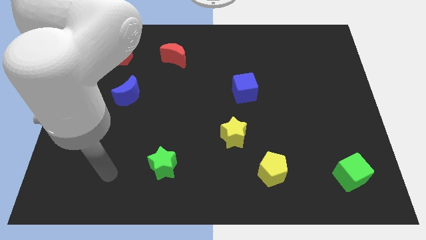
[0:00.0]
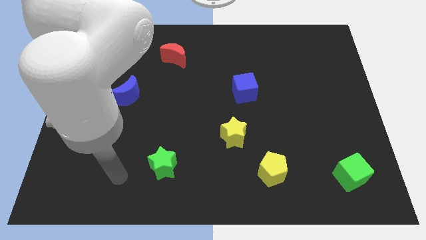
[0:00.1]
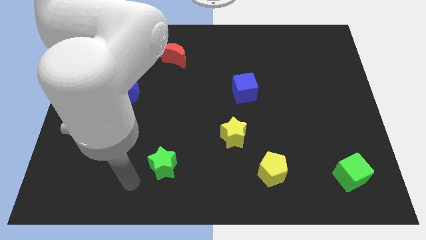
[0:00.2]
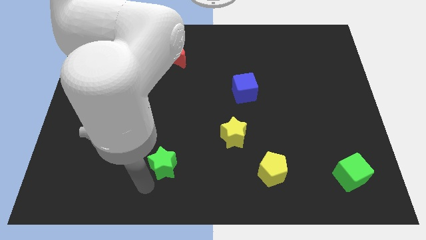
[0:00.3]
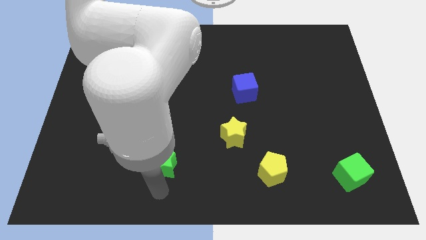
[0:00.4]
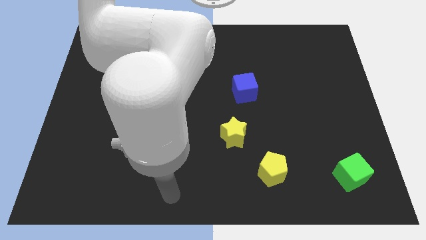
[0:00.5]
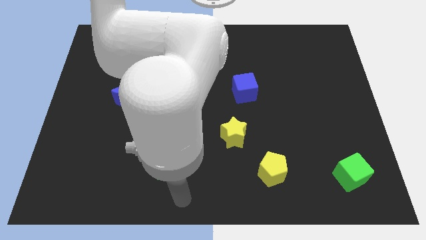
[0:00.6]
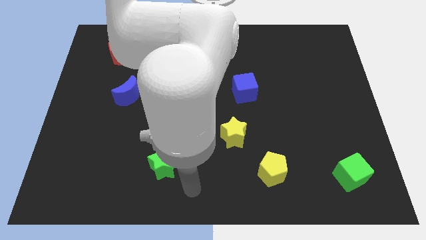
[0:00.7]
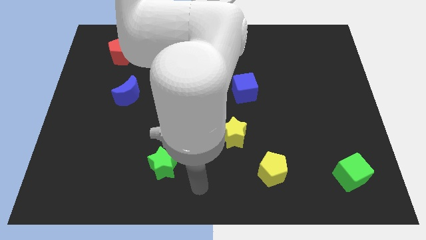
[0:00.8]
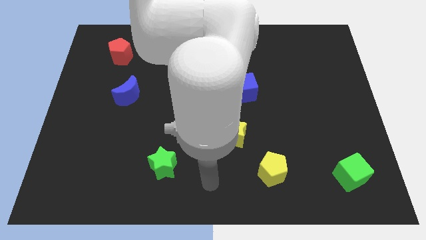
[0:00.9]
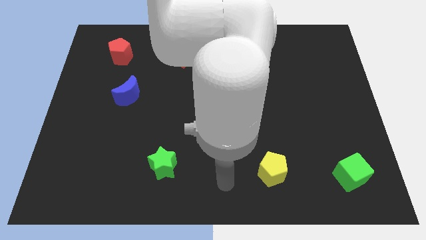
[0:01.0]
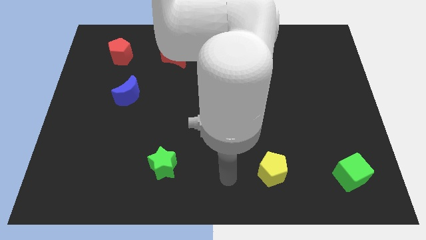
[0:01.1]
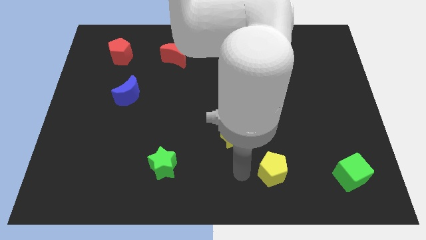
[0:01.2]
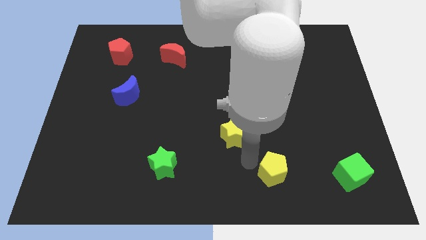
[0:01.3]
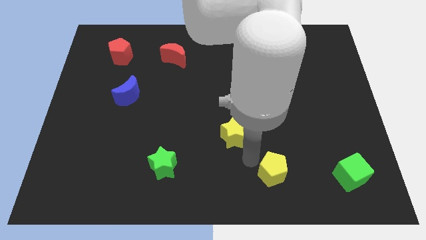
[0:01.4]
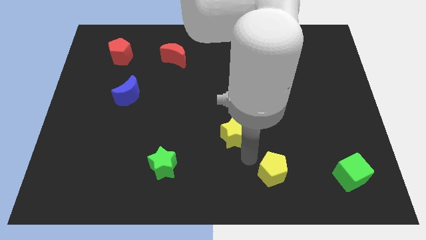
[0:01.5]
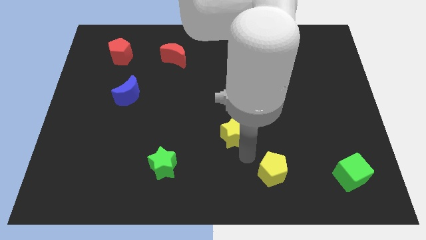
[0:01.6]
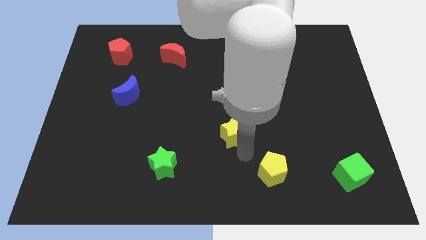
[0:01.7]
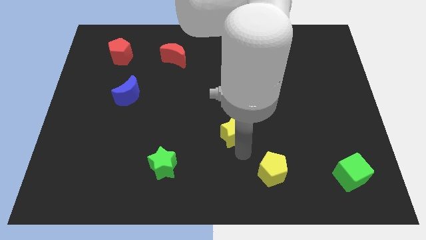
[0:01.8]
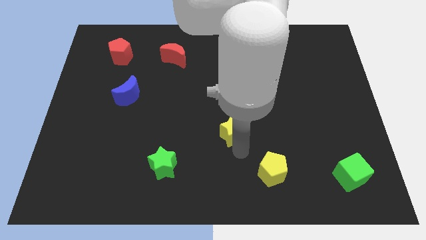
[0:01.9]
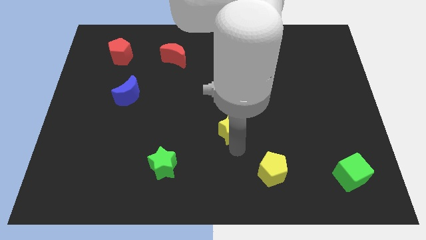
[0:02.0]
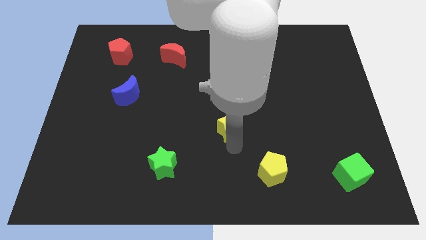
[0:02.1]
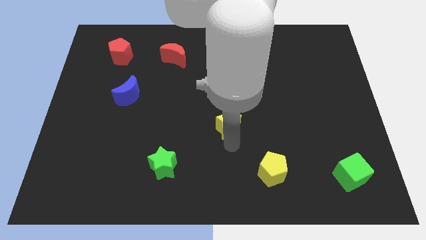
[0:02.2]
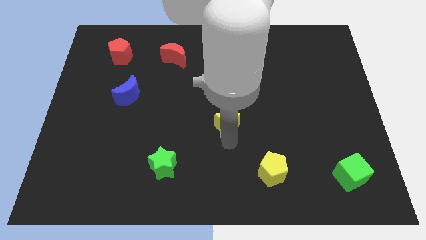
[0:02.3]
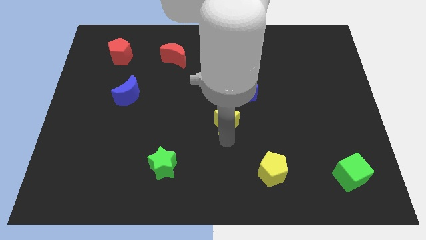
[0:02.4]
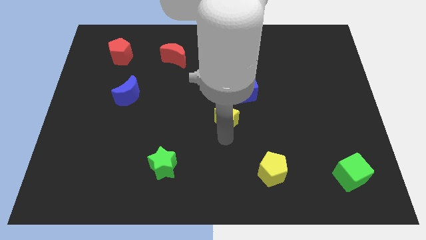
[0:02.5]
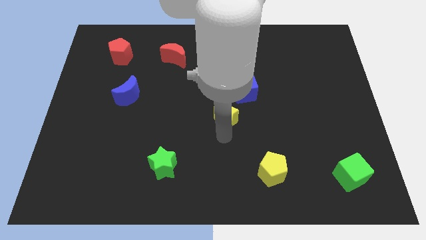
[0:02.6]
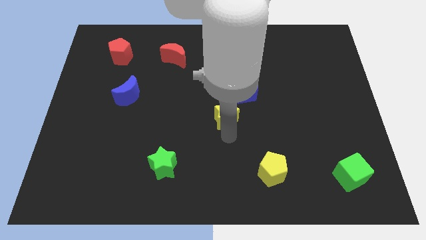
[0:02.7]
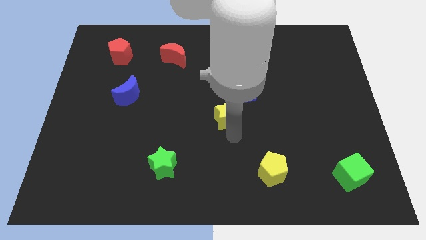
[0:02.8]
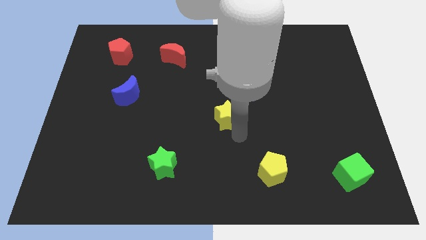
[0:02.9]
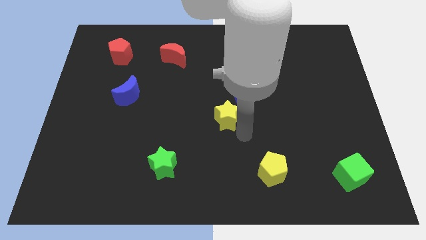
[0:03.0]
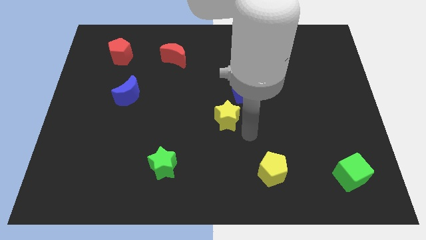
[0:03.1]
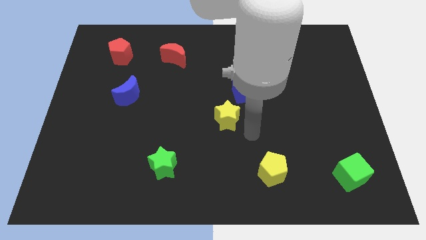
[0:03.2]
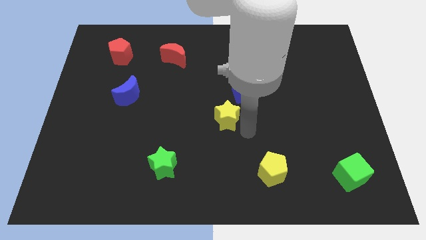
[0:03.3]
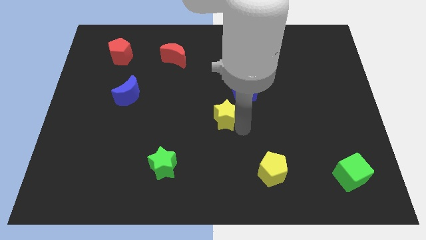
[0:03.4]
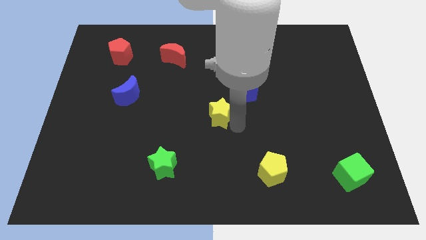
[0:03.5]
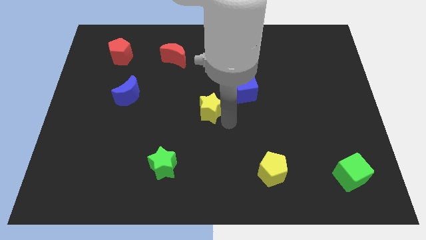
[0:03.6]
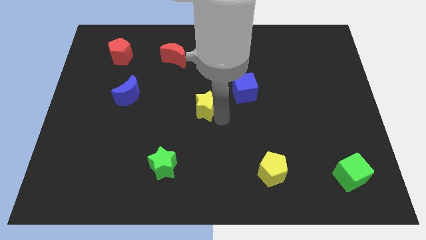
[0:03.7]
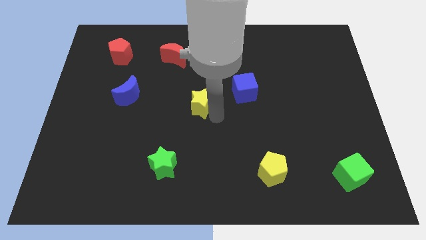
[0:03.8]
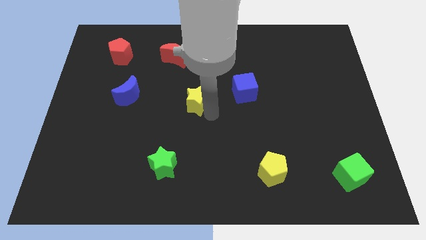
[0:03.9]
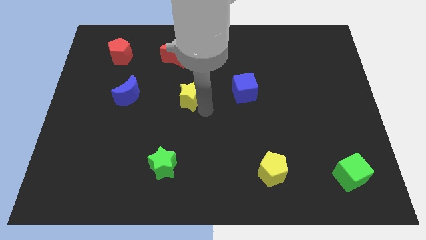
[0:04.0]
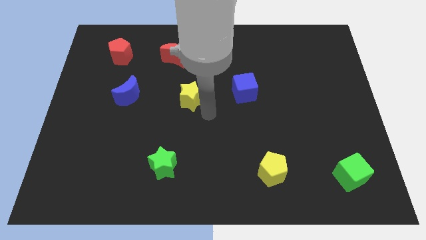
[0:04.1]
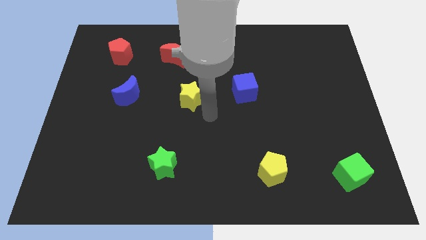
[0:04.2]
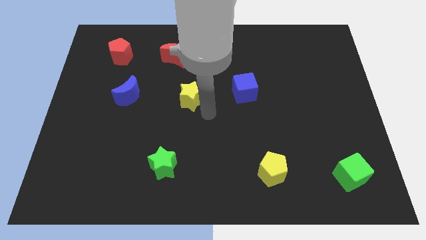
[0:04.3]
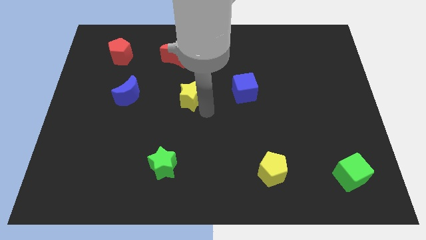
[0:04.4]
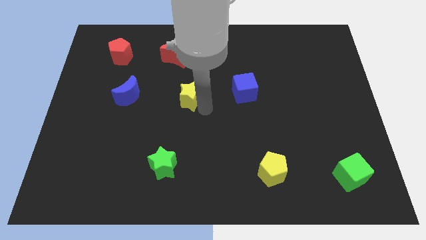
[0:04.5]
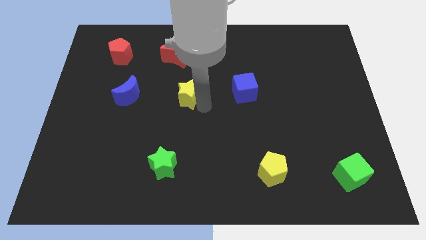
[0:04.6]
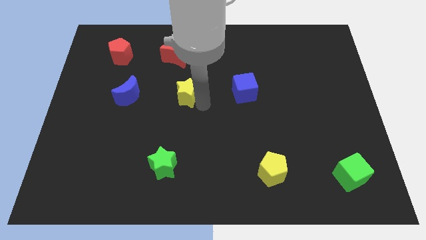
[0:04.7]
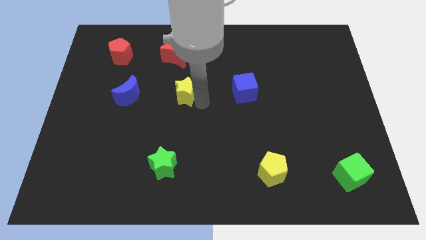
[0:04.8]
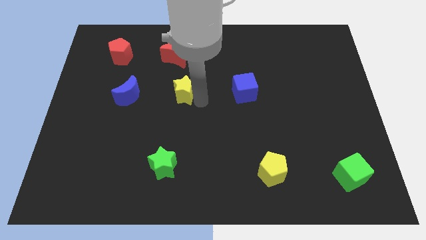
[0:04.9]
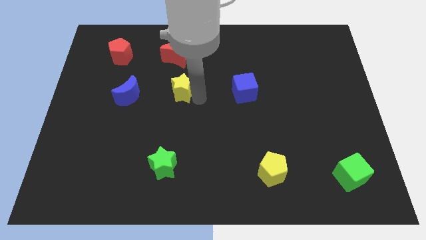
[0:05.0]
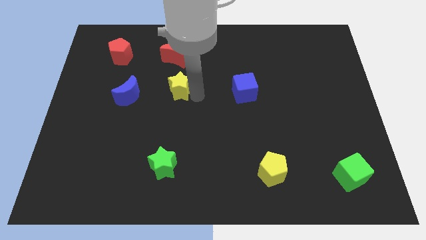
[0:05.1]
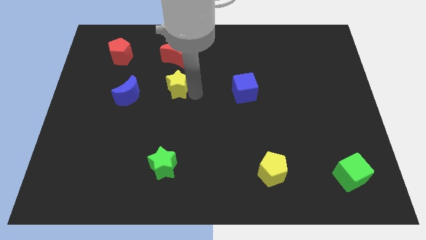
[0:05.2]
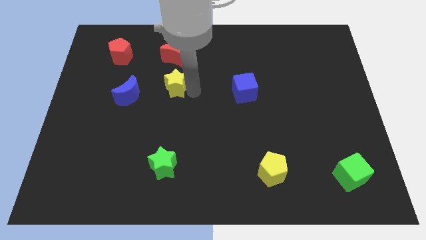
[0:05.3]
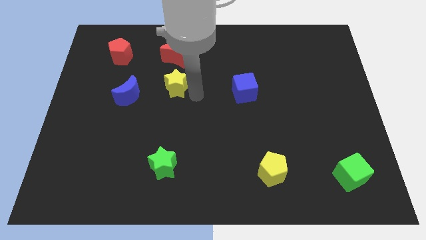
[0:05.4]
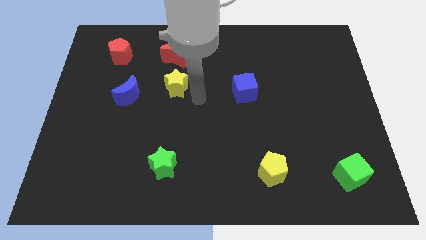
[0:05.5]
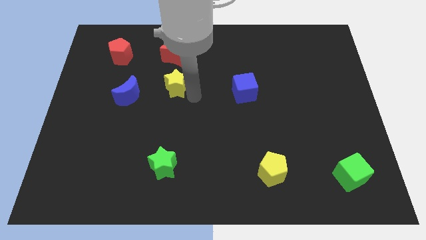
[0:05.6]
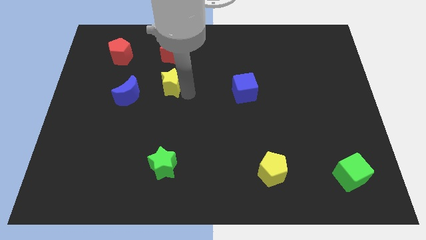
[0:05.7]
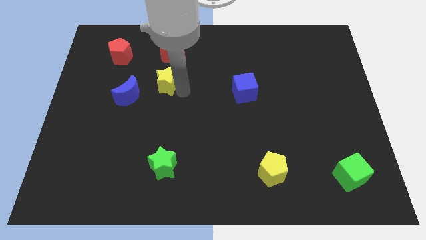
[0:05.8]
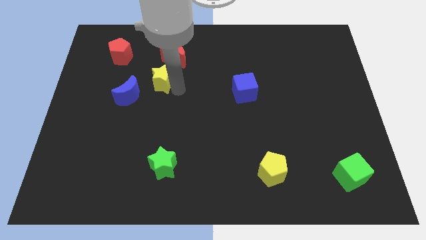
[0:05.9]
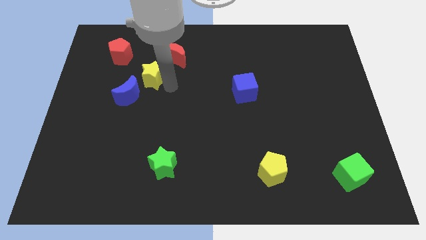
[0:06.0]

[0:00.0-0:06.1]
push the yellow star to the top of the blue moon

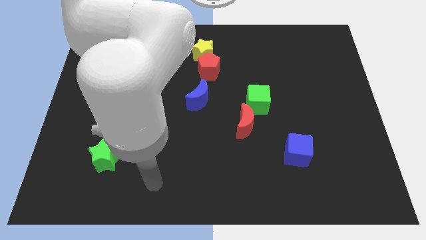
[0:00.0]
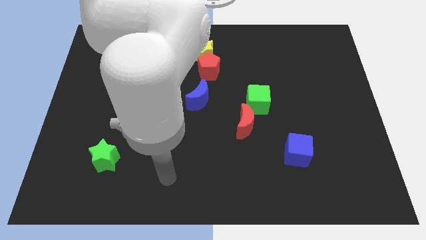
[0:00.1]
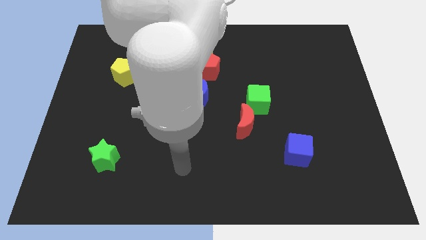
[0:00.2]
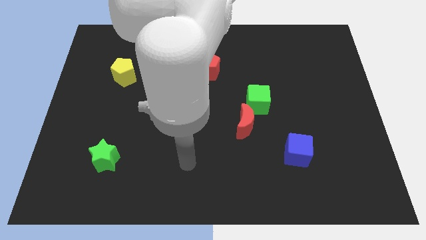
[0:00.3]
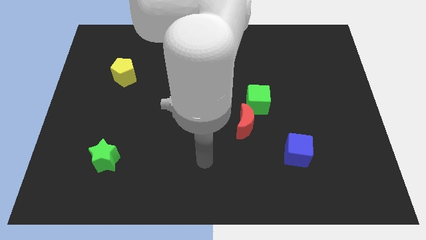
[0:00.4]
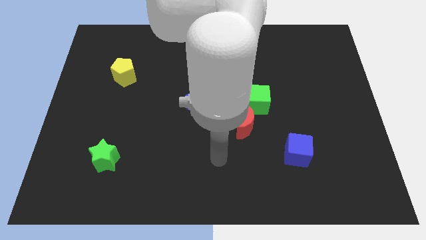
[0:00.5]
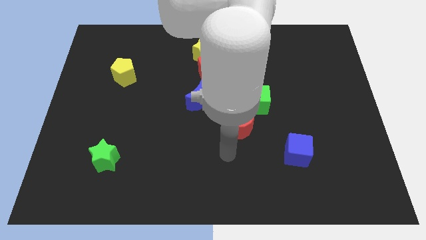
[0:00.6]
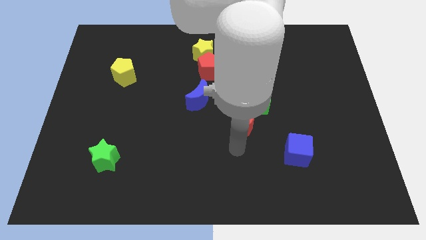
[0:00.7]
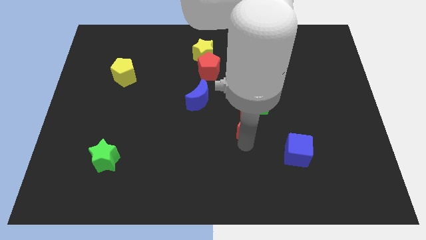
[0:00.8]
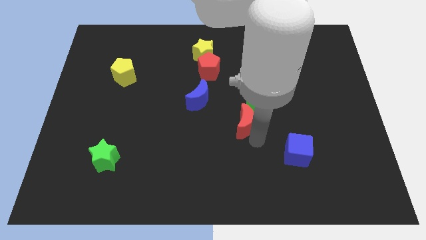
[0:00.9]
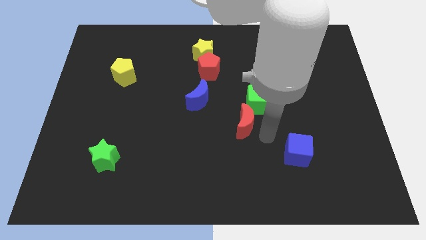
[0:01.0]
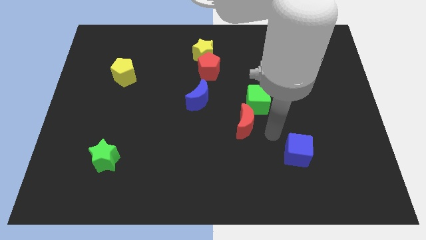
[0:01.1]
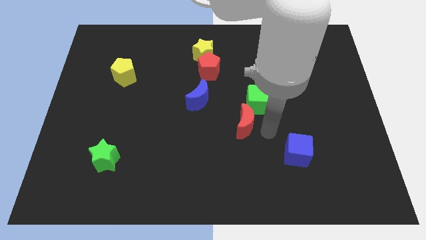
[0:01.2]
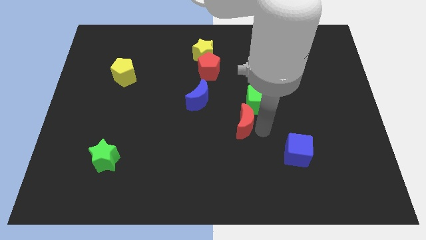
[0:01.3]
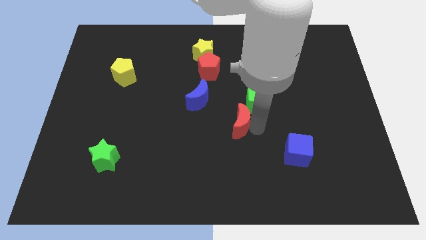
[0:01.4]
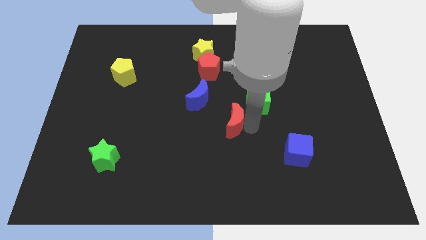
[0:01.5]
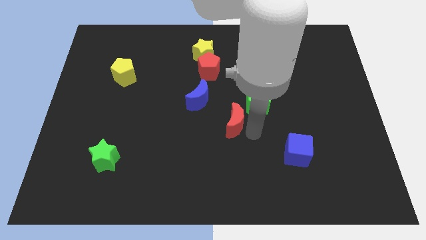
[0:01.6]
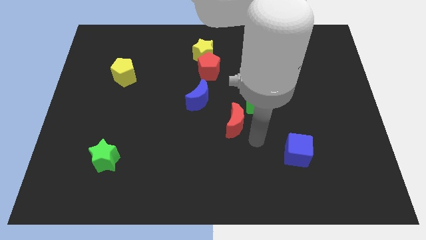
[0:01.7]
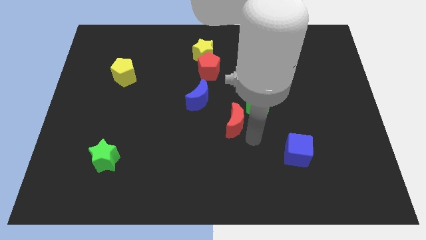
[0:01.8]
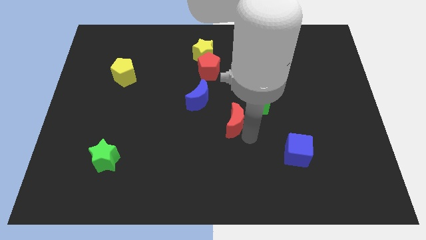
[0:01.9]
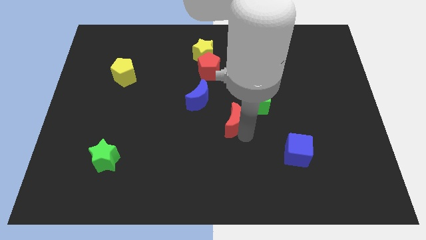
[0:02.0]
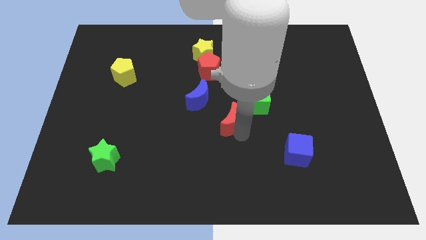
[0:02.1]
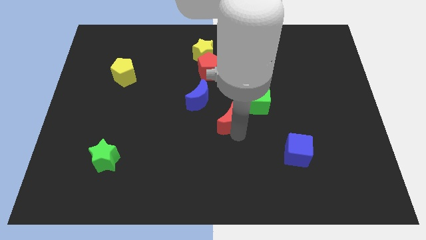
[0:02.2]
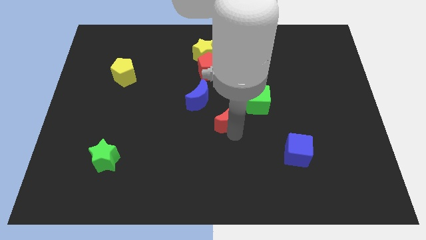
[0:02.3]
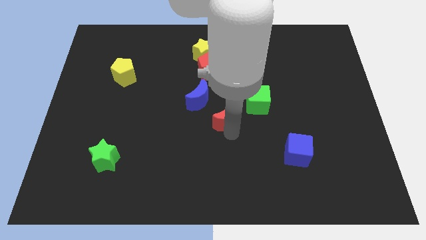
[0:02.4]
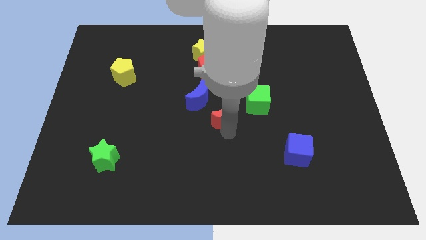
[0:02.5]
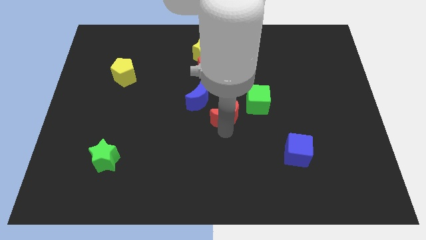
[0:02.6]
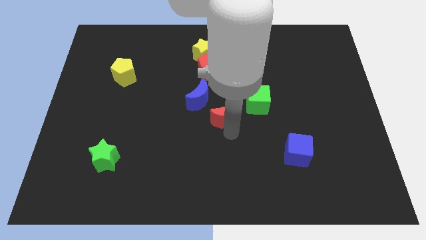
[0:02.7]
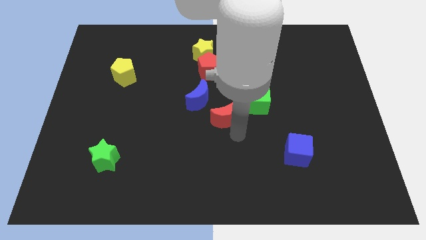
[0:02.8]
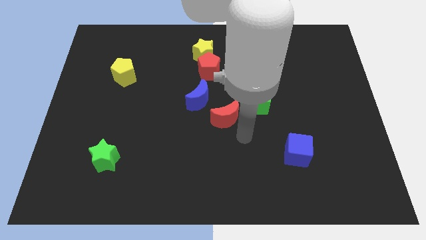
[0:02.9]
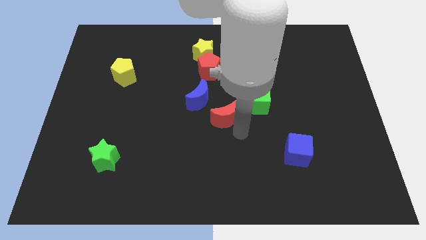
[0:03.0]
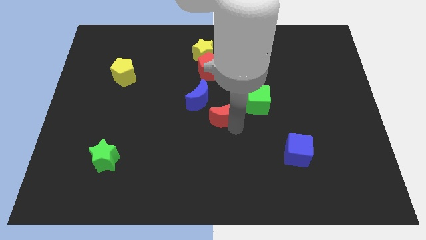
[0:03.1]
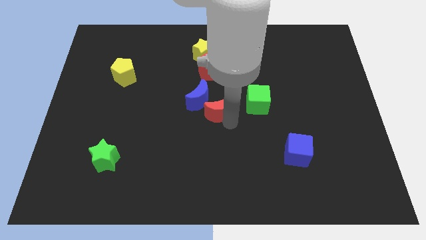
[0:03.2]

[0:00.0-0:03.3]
push the red moon to the bottom of the red pentagon
